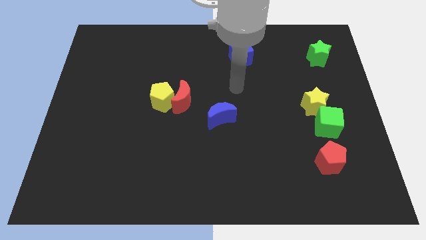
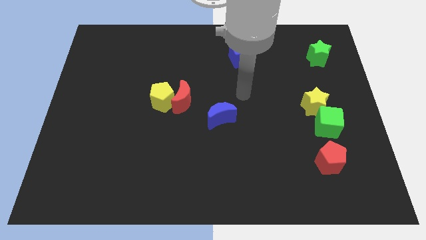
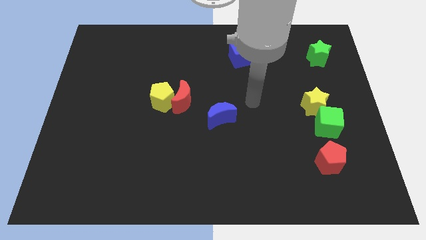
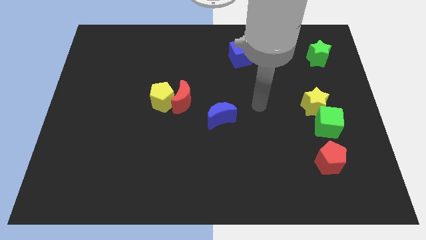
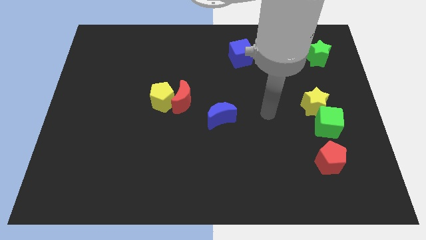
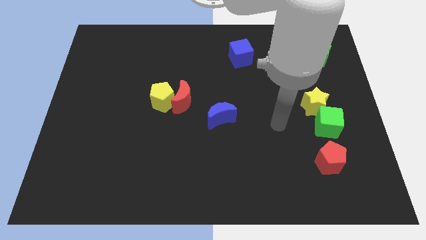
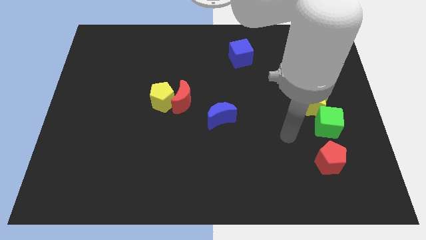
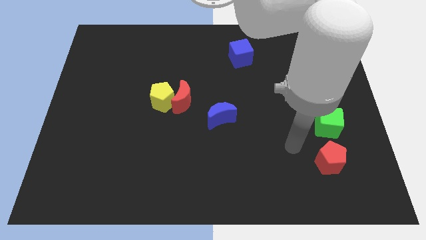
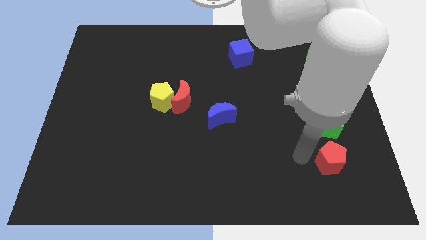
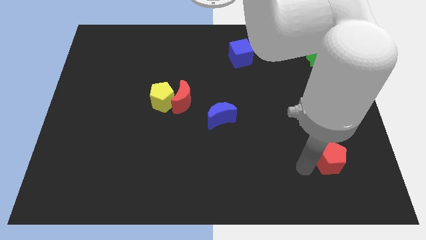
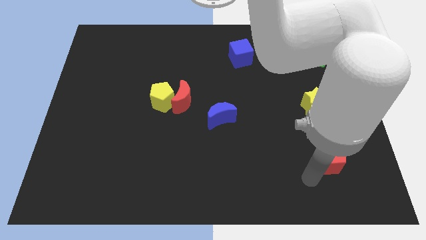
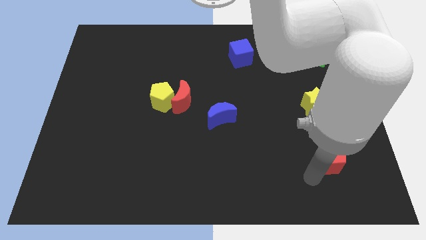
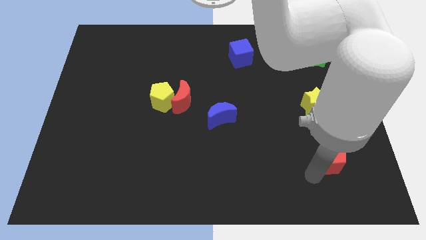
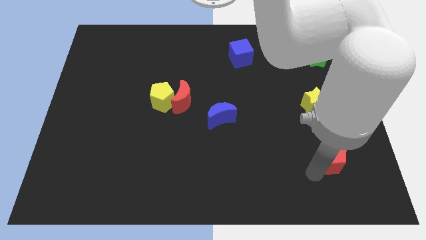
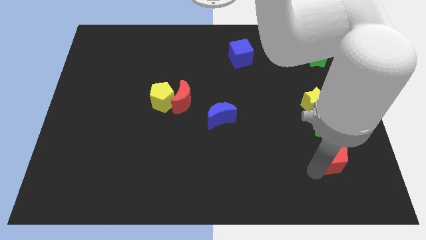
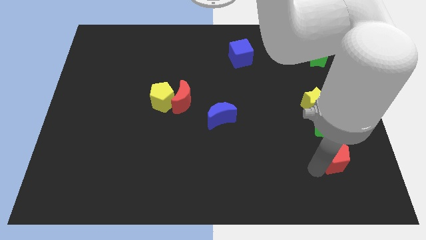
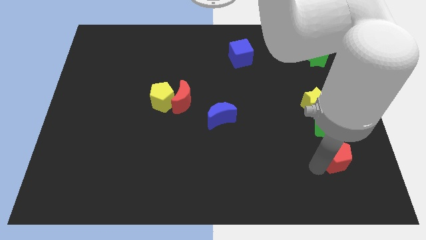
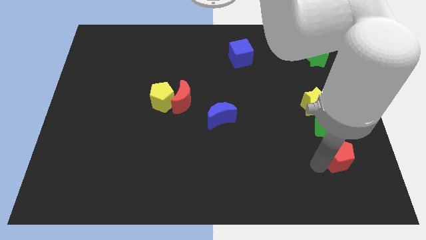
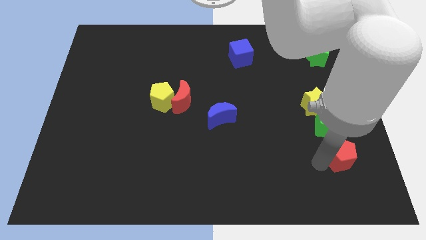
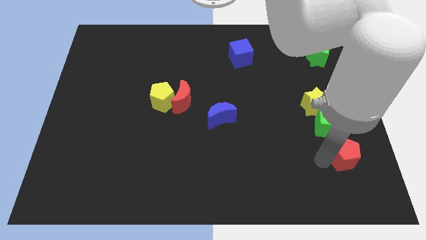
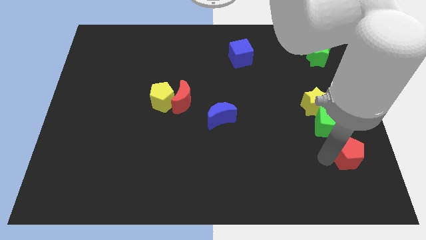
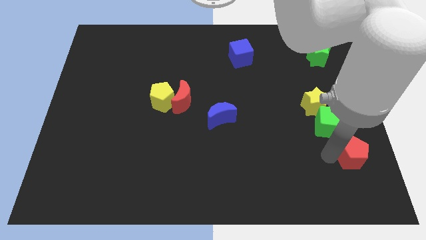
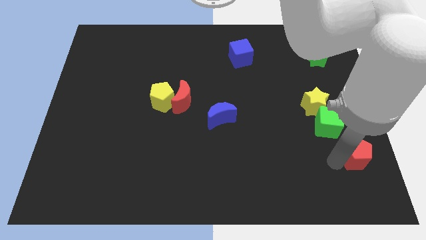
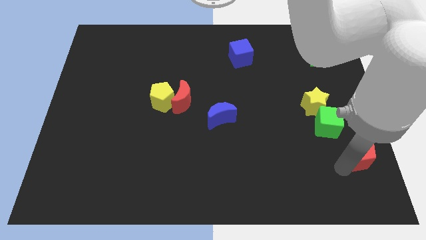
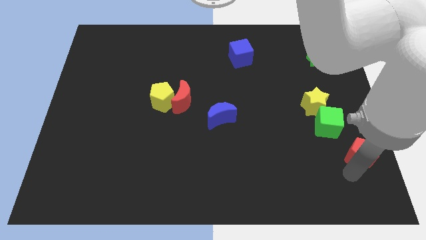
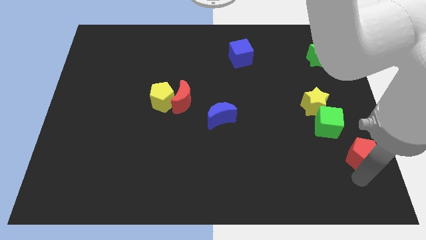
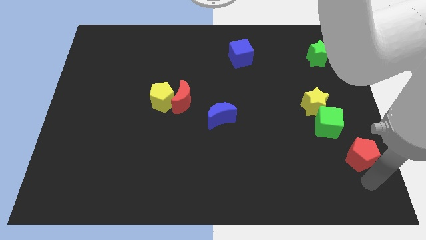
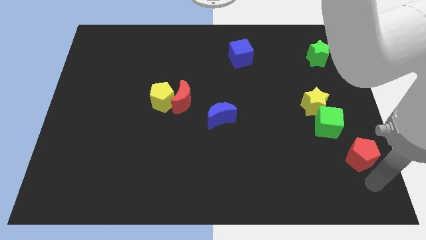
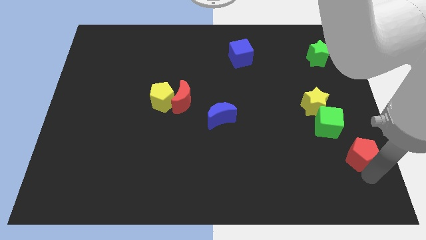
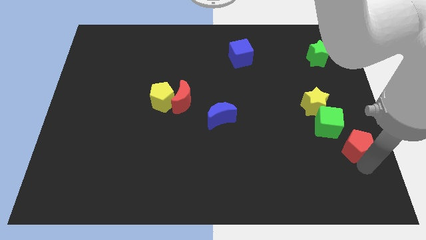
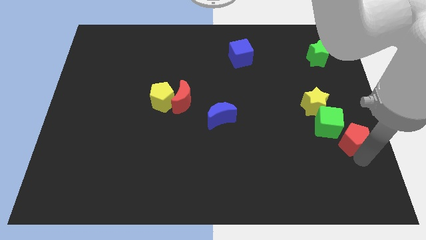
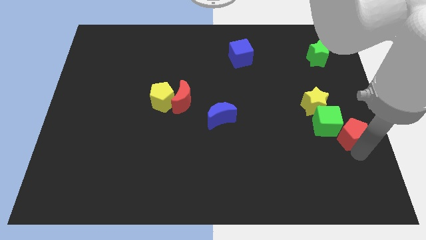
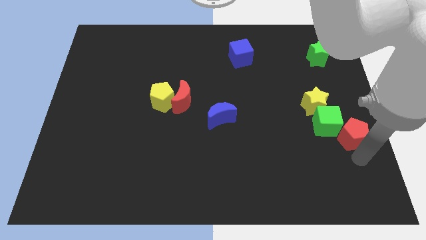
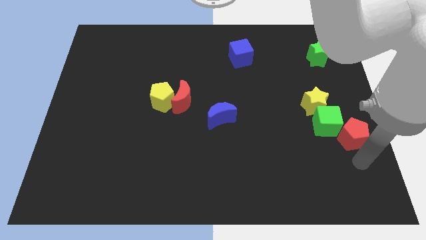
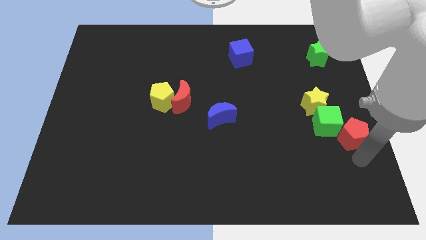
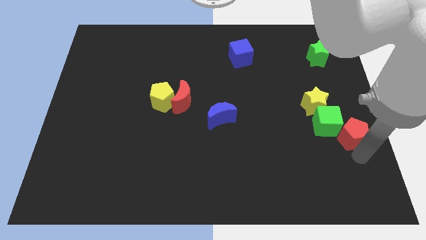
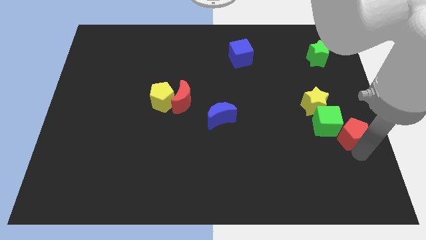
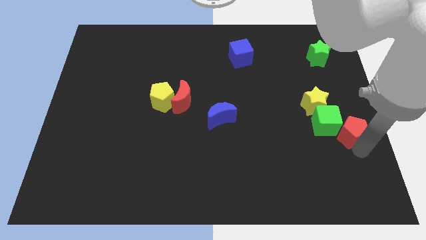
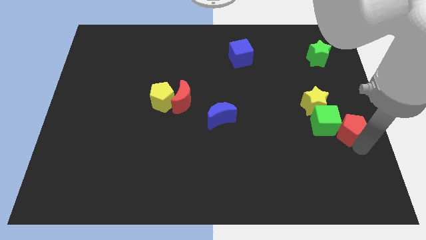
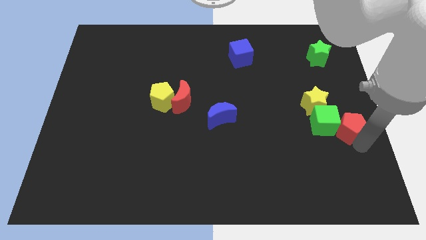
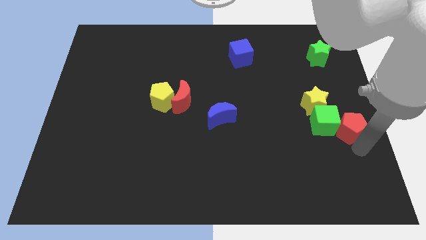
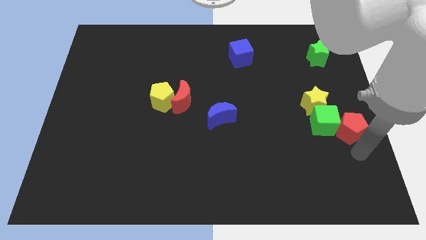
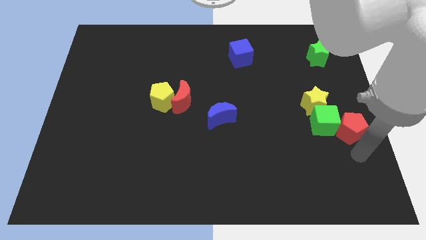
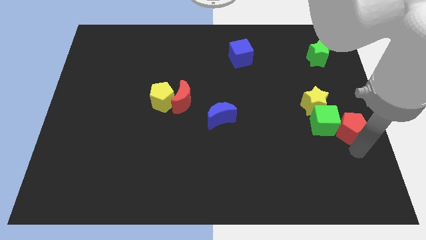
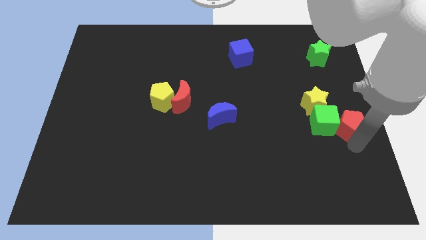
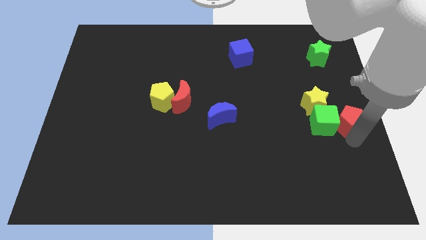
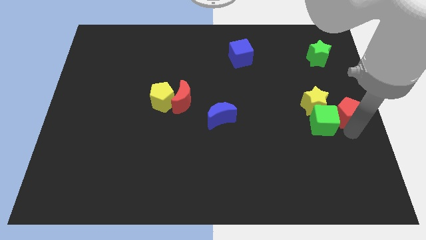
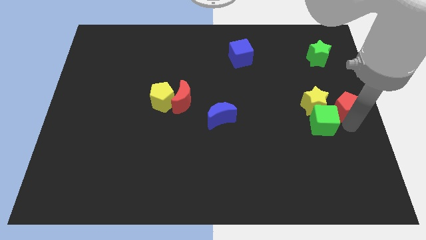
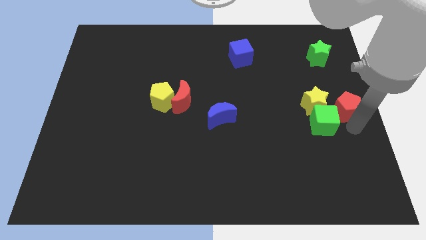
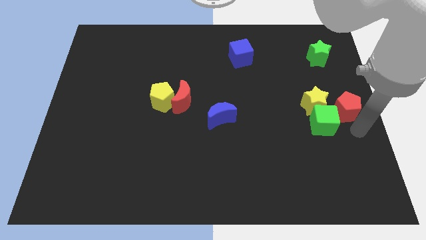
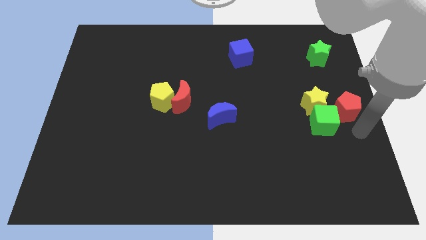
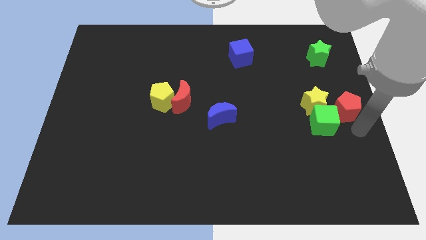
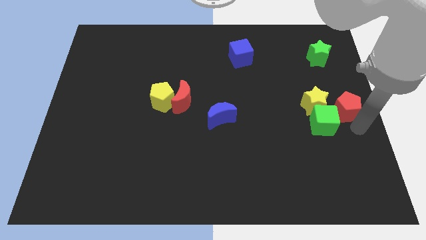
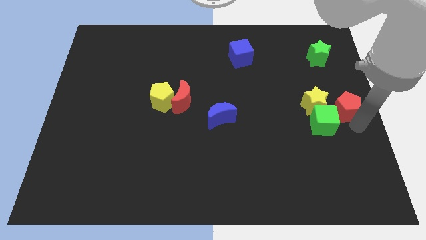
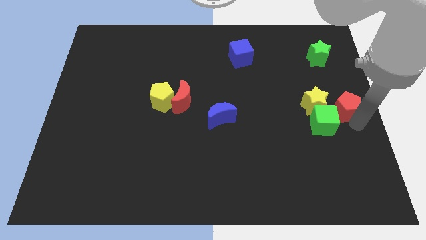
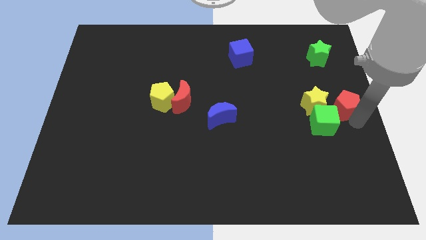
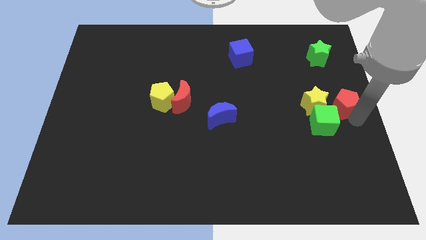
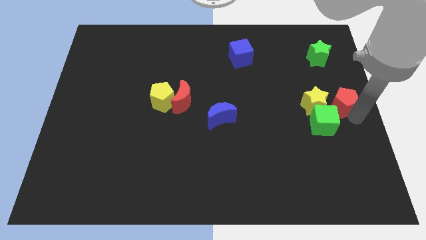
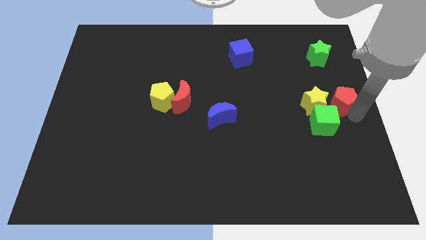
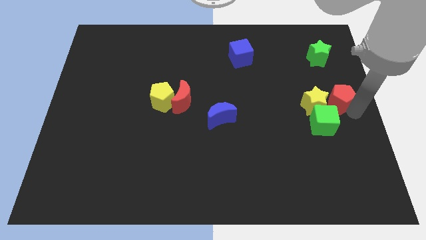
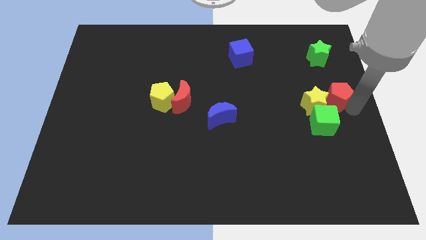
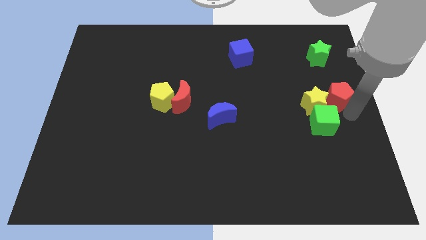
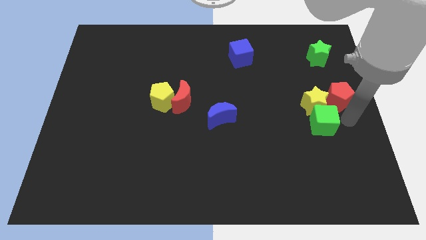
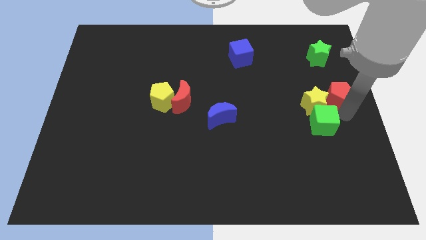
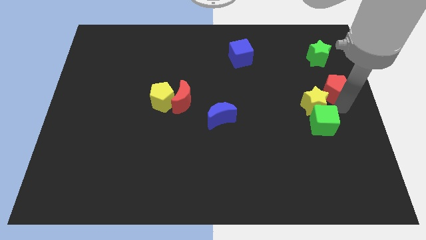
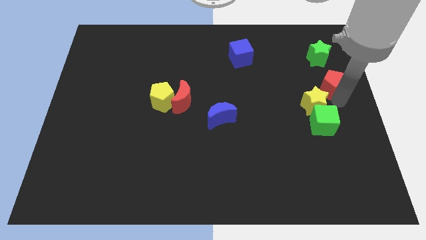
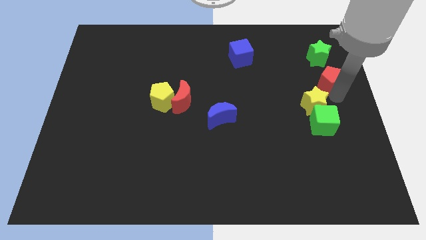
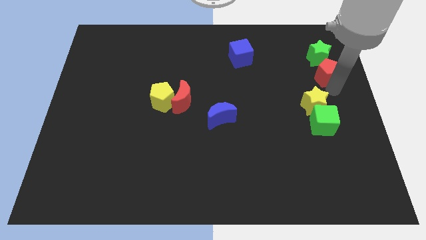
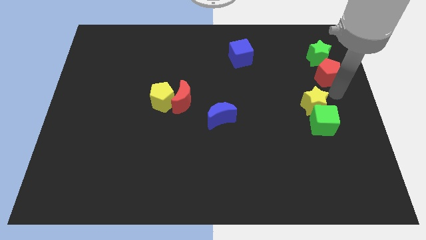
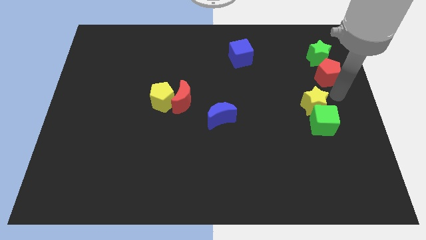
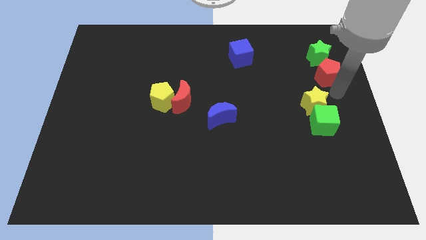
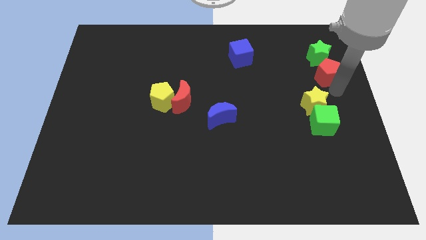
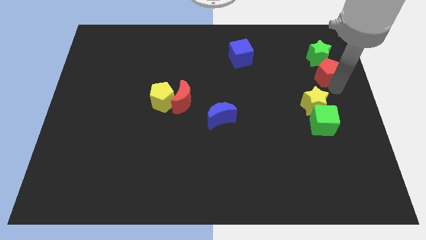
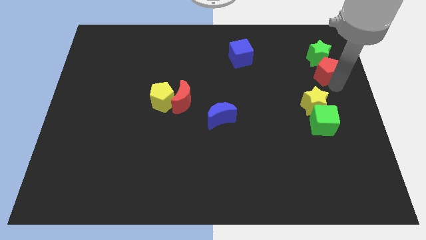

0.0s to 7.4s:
move the red pentagon close to the green star

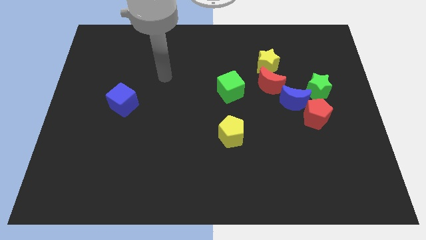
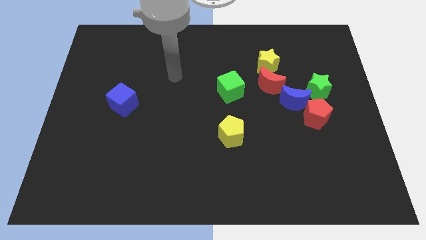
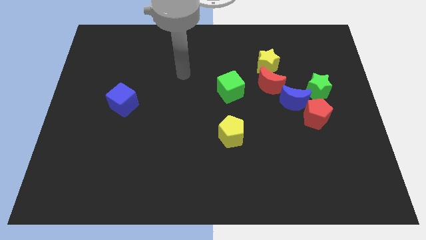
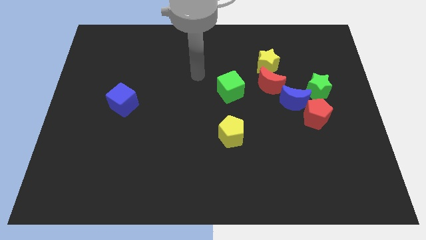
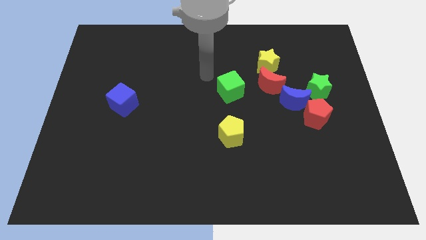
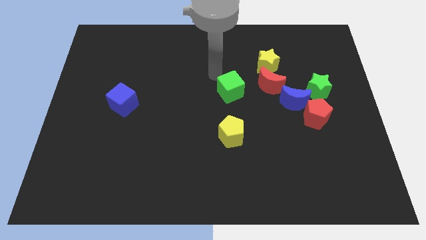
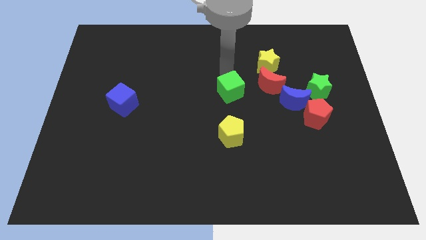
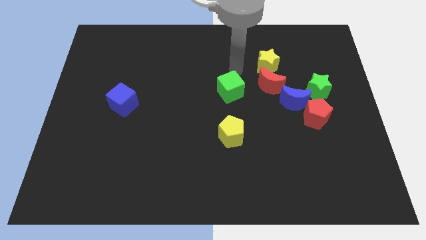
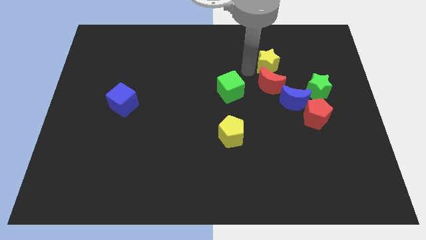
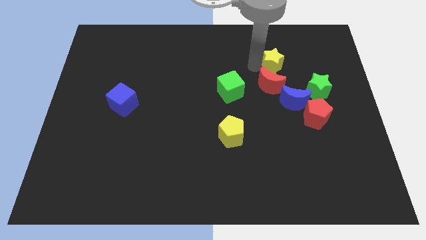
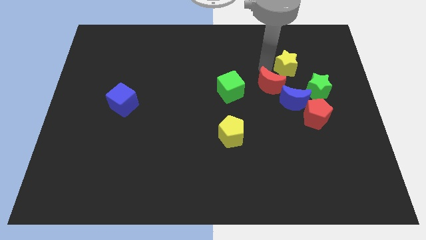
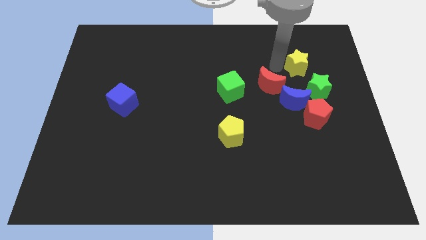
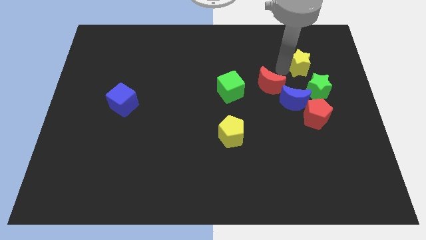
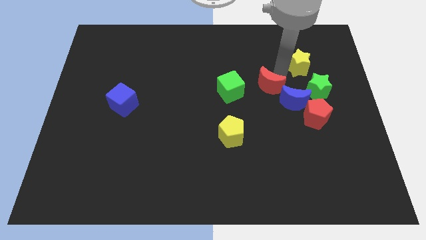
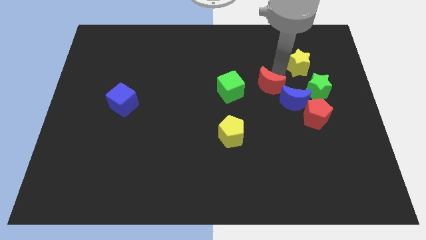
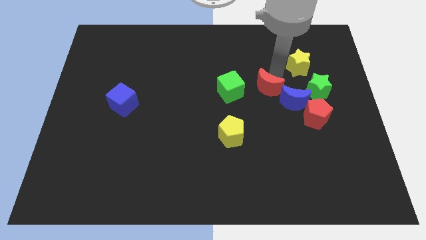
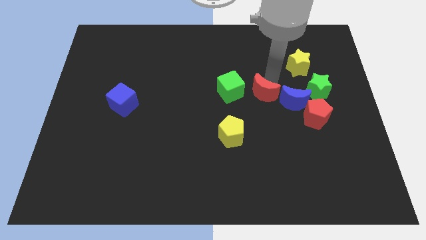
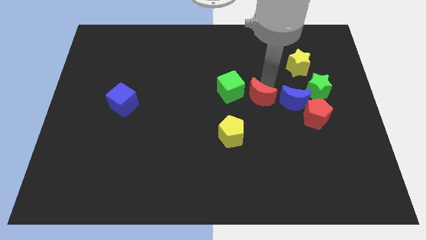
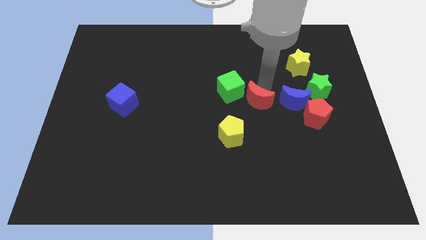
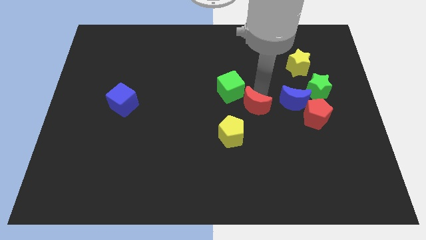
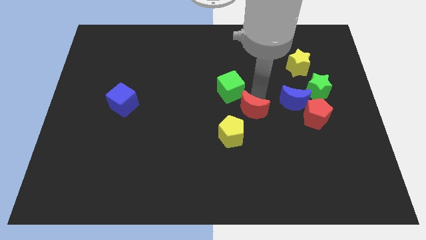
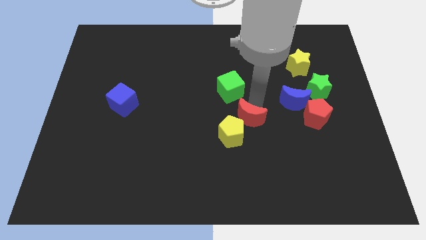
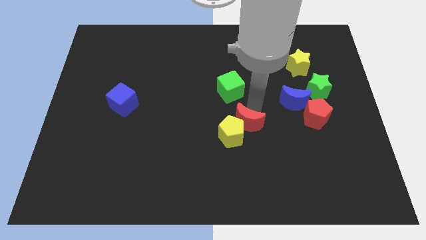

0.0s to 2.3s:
move the red moon to the yellow pentagon
